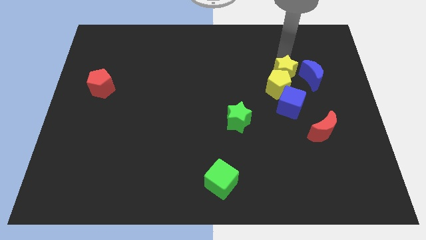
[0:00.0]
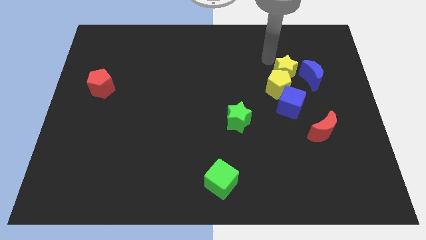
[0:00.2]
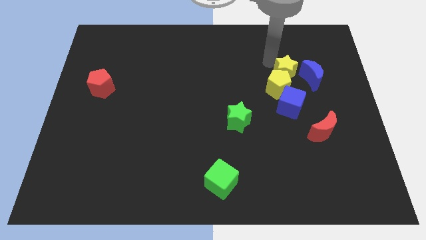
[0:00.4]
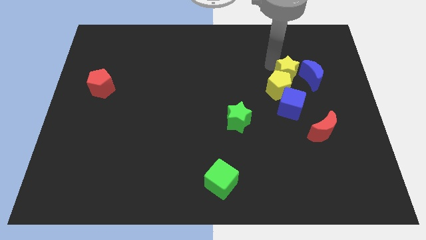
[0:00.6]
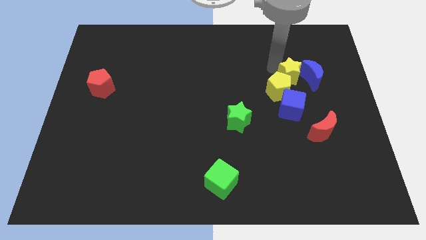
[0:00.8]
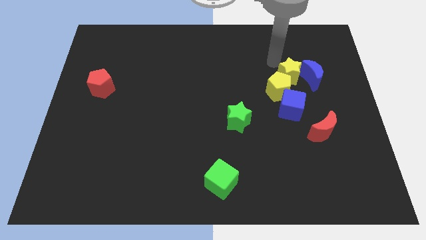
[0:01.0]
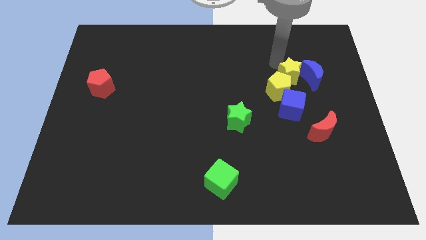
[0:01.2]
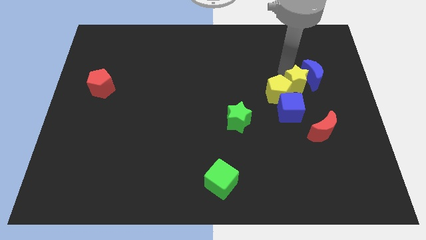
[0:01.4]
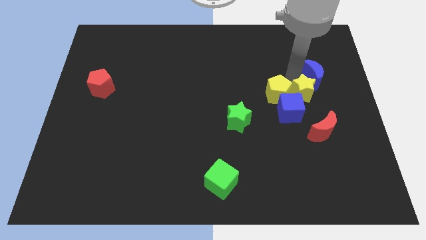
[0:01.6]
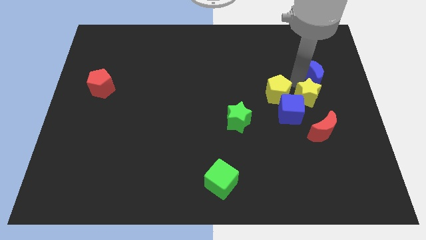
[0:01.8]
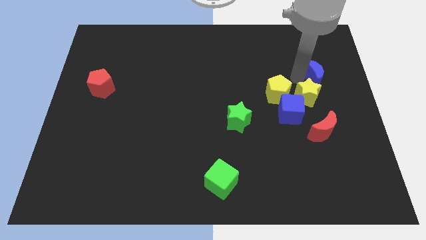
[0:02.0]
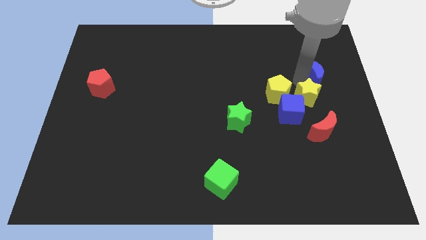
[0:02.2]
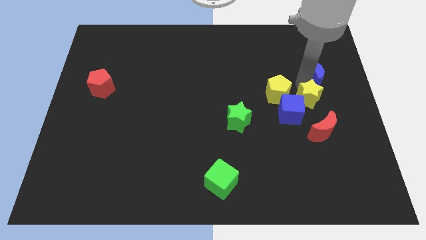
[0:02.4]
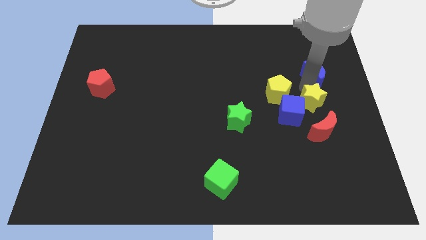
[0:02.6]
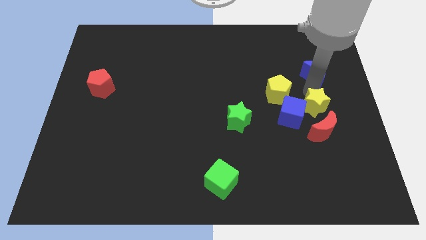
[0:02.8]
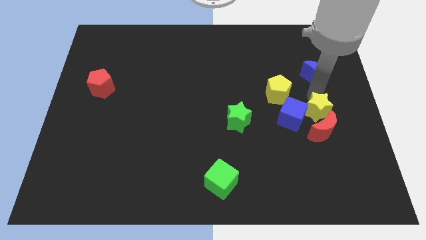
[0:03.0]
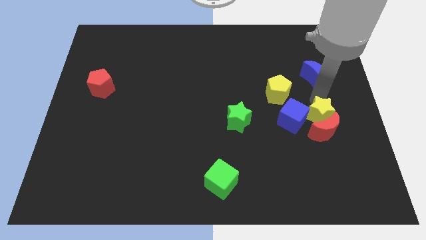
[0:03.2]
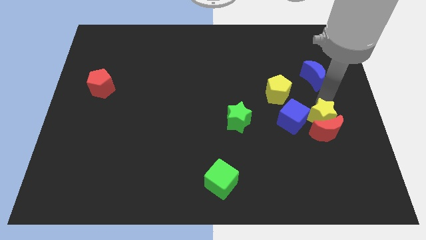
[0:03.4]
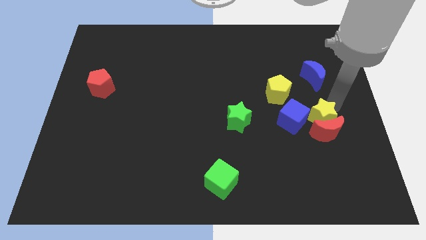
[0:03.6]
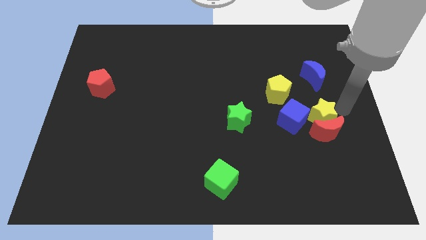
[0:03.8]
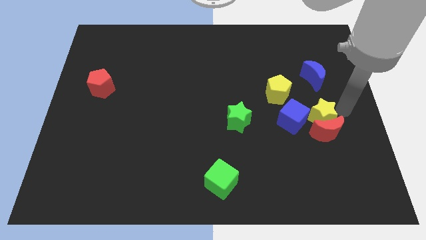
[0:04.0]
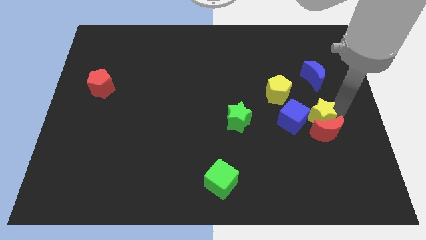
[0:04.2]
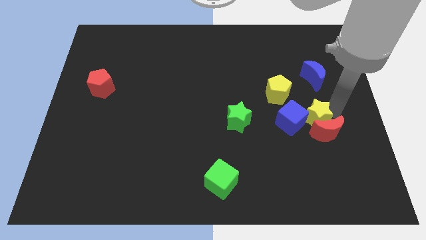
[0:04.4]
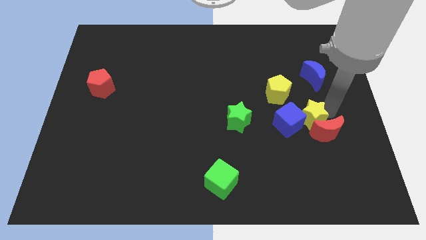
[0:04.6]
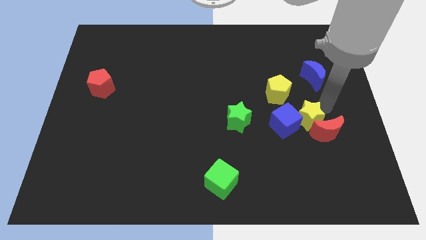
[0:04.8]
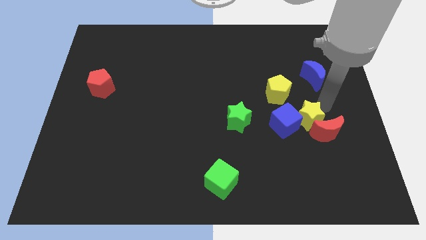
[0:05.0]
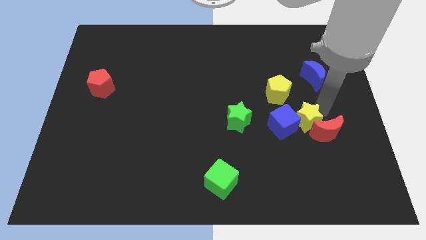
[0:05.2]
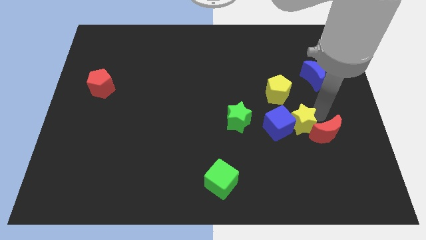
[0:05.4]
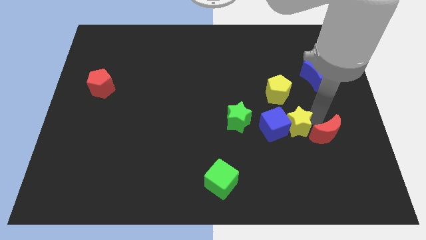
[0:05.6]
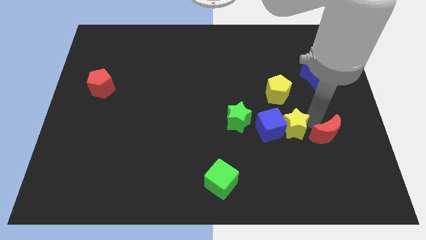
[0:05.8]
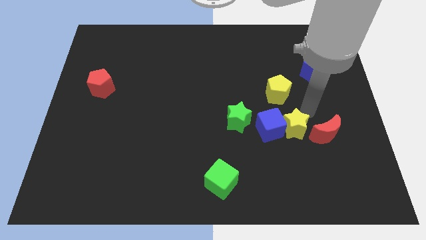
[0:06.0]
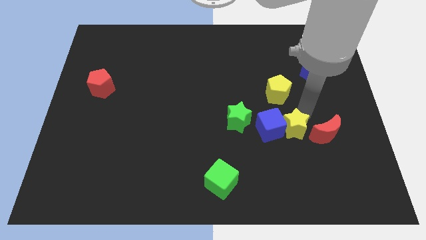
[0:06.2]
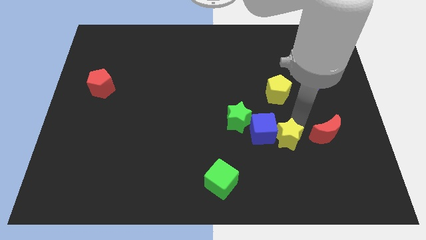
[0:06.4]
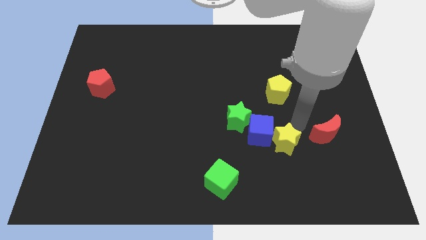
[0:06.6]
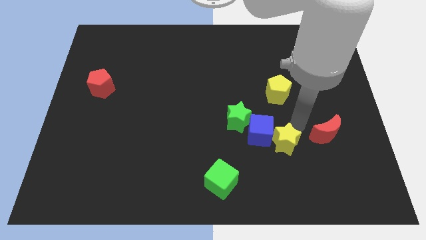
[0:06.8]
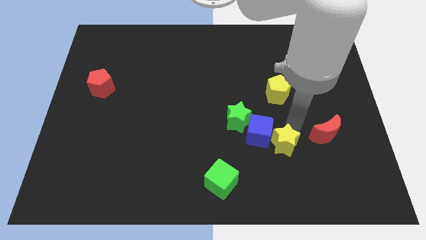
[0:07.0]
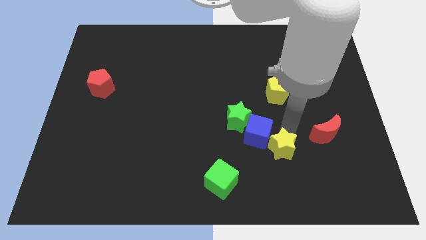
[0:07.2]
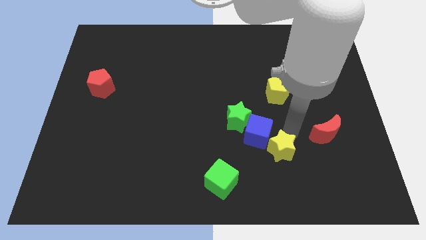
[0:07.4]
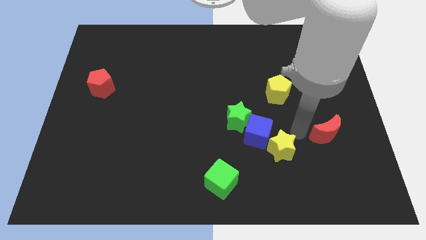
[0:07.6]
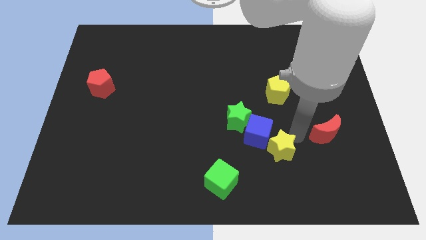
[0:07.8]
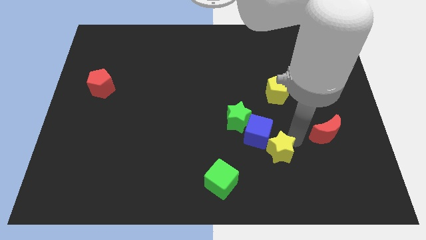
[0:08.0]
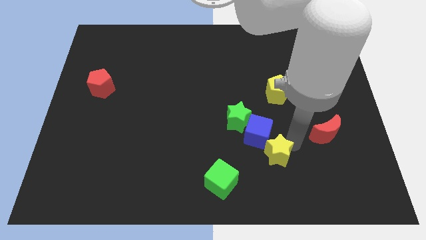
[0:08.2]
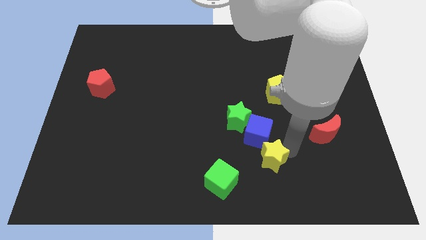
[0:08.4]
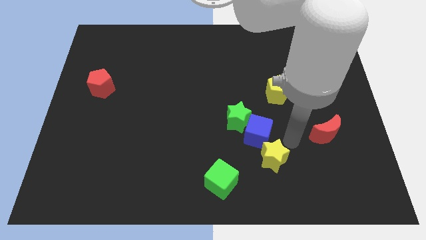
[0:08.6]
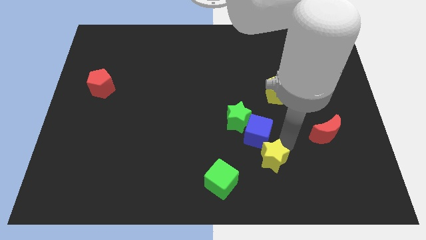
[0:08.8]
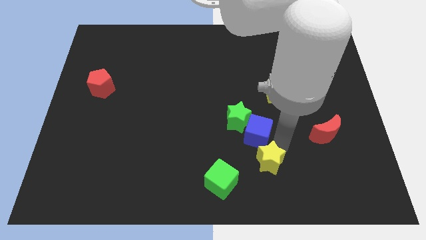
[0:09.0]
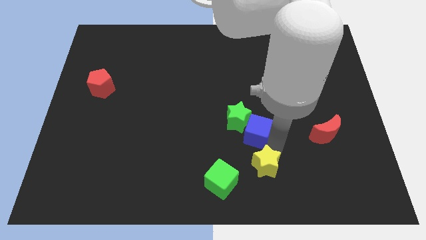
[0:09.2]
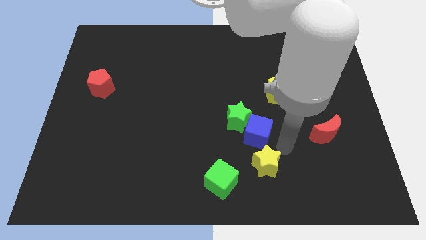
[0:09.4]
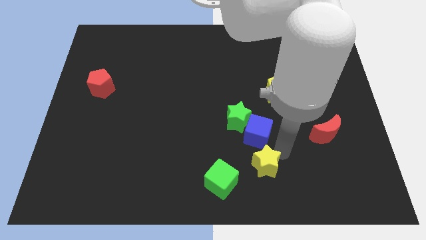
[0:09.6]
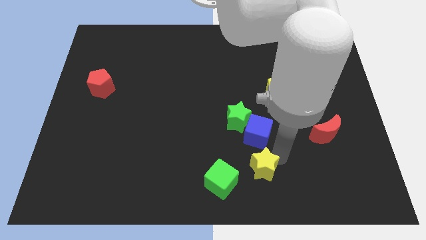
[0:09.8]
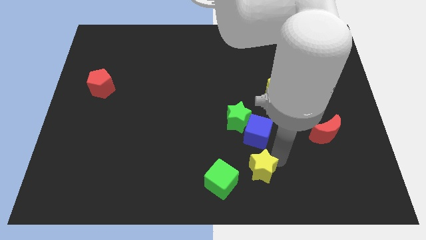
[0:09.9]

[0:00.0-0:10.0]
push the yellow star to the bottom side

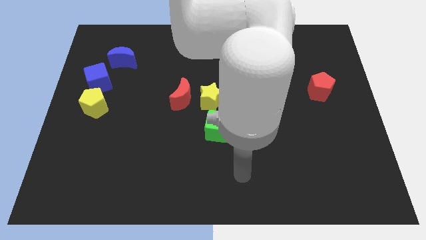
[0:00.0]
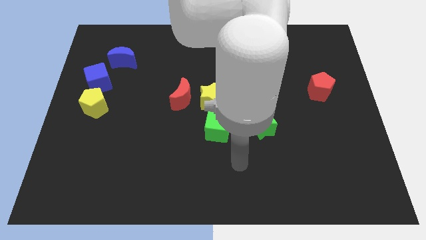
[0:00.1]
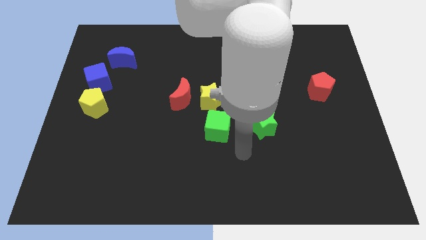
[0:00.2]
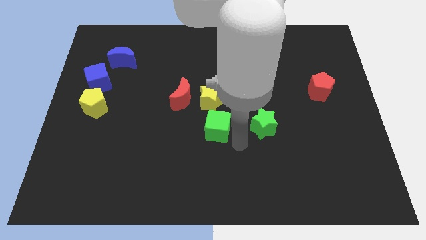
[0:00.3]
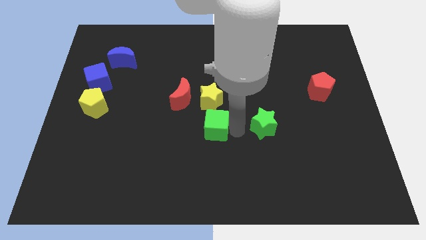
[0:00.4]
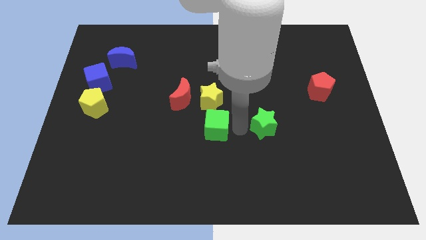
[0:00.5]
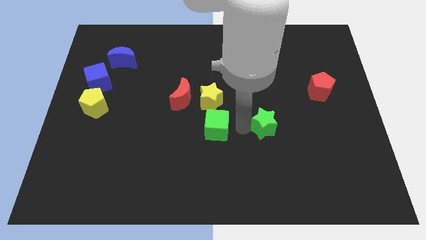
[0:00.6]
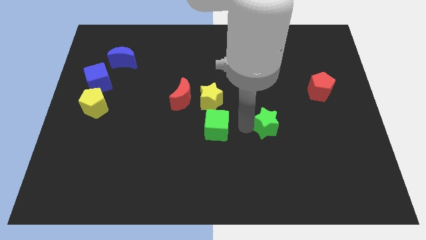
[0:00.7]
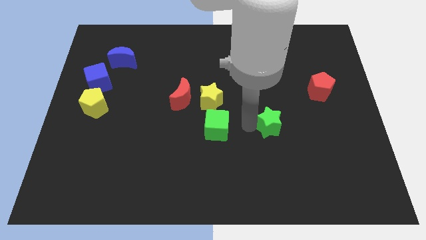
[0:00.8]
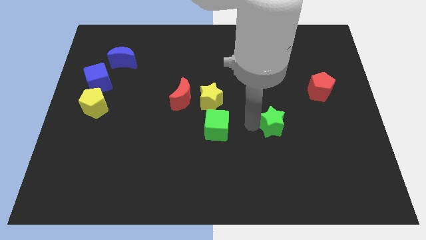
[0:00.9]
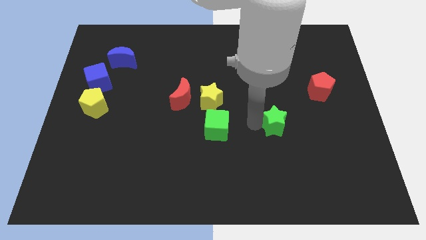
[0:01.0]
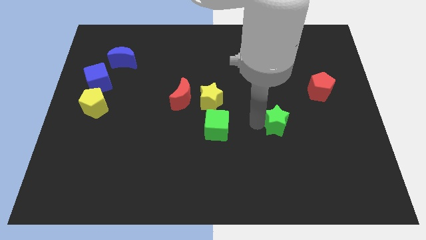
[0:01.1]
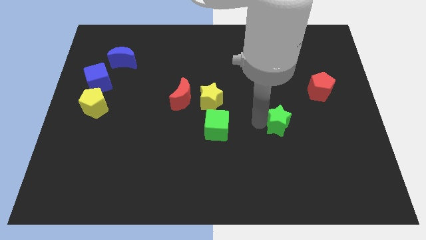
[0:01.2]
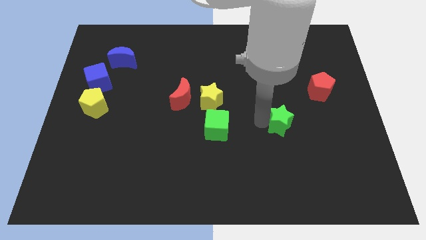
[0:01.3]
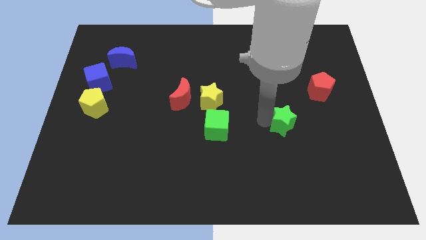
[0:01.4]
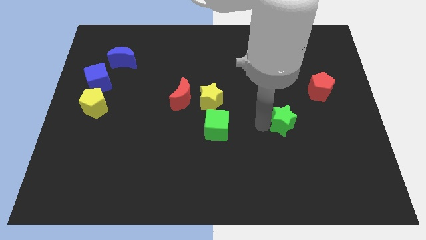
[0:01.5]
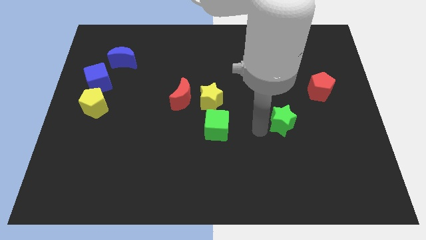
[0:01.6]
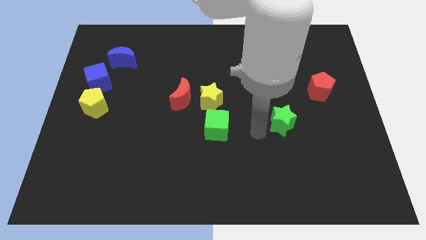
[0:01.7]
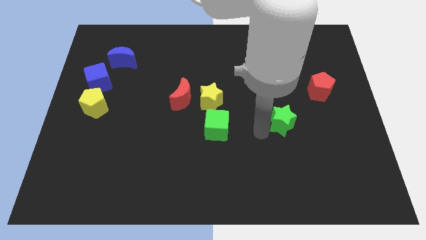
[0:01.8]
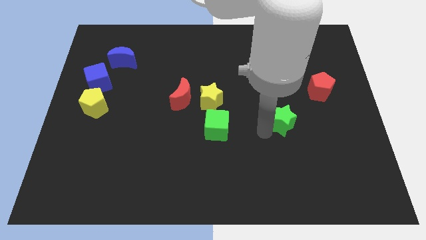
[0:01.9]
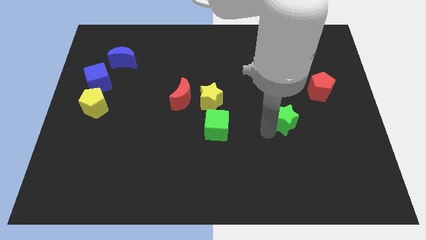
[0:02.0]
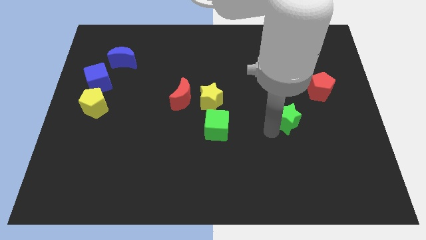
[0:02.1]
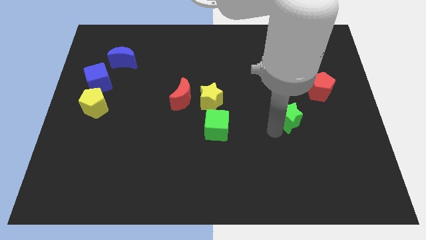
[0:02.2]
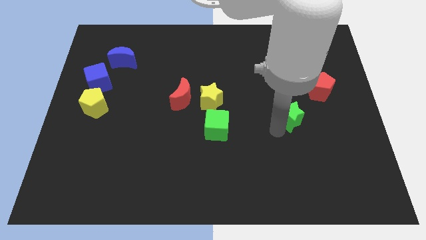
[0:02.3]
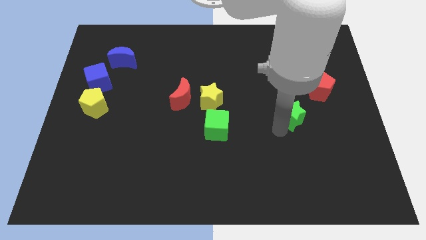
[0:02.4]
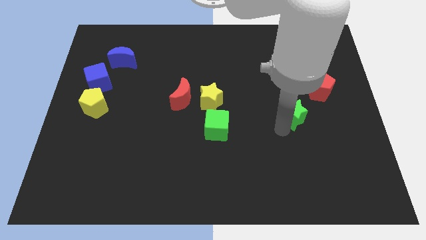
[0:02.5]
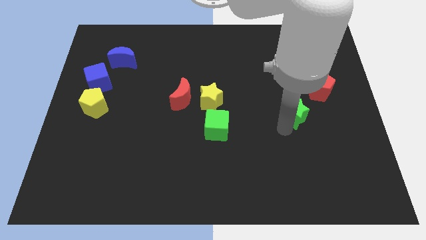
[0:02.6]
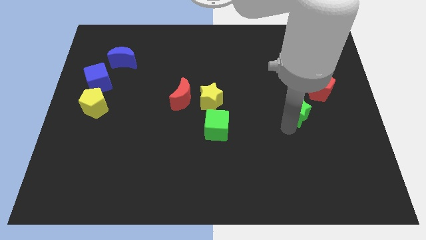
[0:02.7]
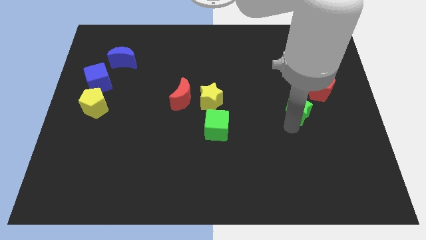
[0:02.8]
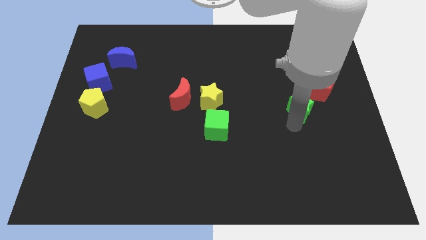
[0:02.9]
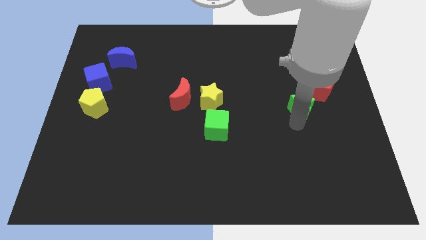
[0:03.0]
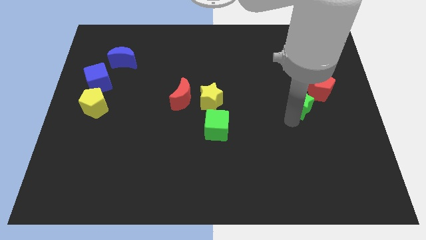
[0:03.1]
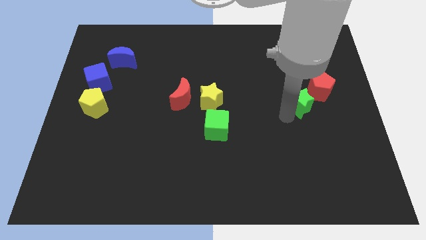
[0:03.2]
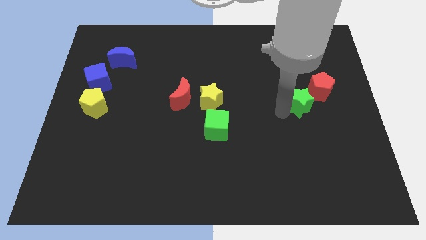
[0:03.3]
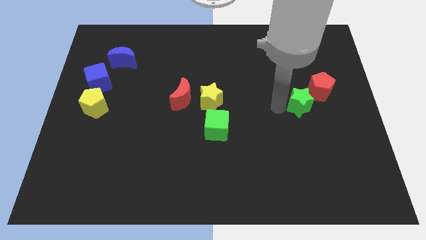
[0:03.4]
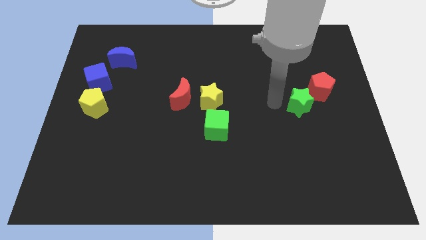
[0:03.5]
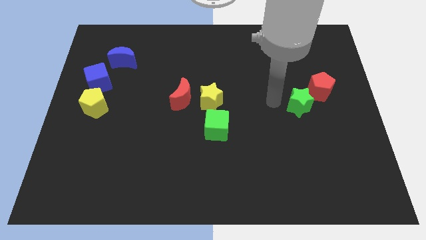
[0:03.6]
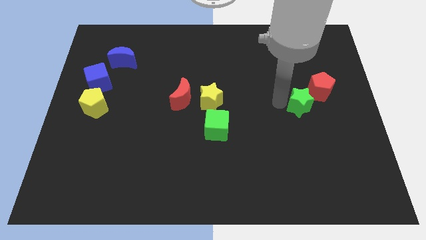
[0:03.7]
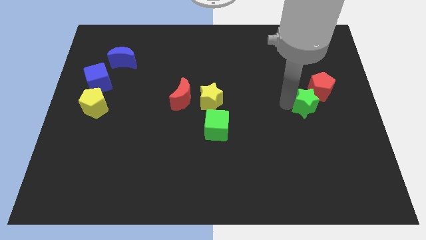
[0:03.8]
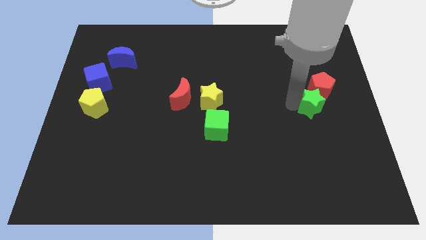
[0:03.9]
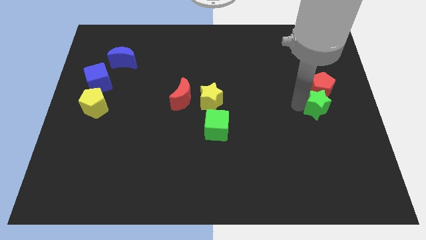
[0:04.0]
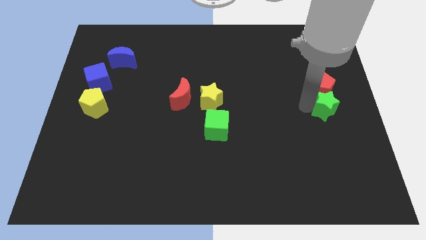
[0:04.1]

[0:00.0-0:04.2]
move the green star to the center right
